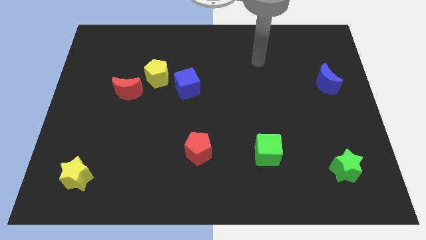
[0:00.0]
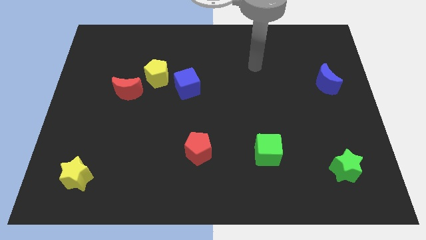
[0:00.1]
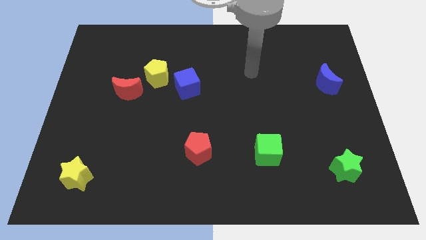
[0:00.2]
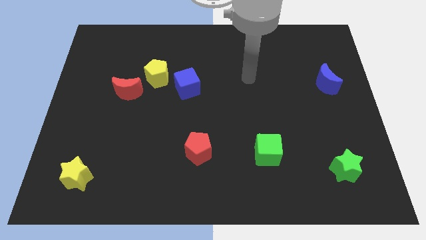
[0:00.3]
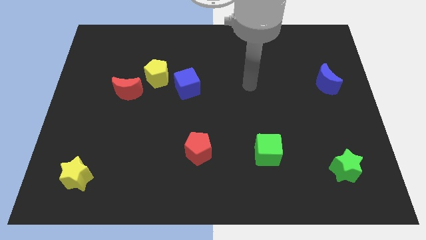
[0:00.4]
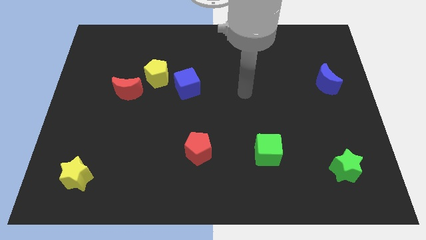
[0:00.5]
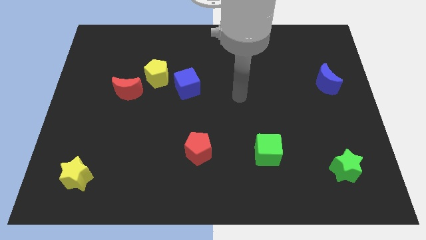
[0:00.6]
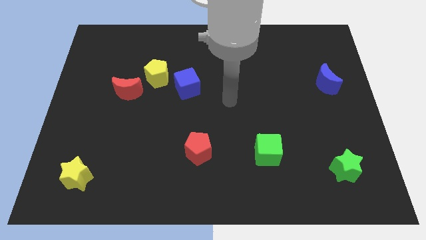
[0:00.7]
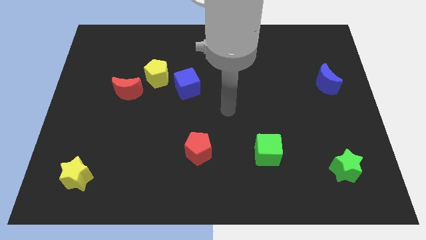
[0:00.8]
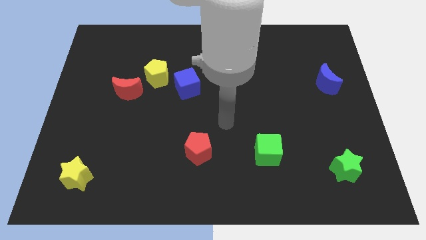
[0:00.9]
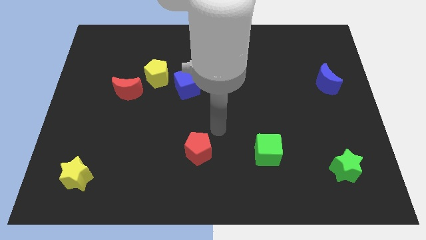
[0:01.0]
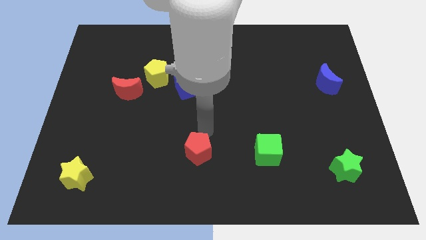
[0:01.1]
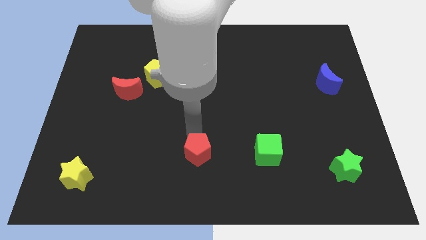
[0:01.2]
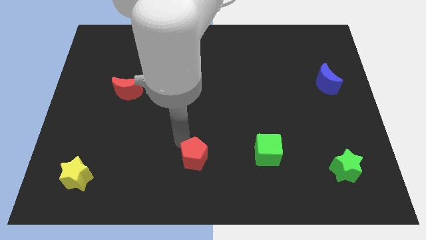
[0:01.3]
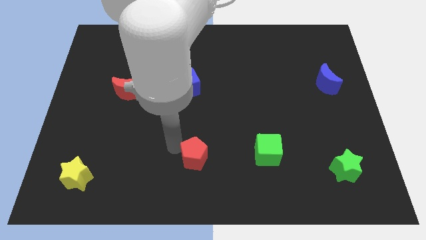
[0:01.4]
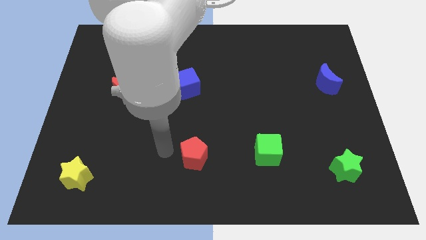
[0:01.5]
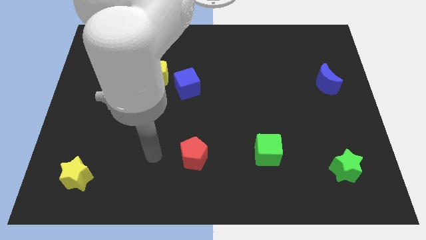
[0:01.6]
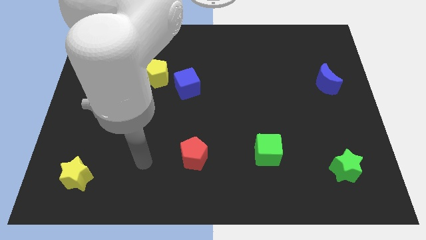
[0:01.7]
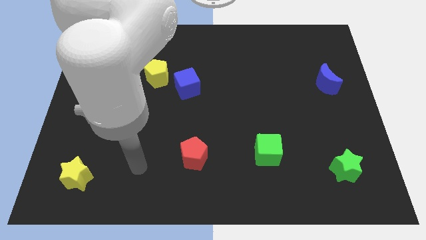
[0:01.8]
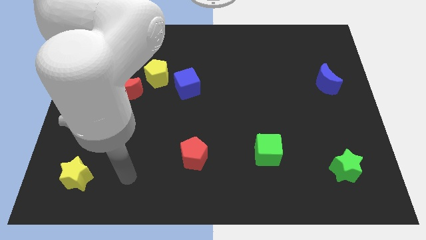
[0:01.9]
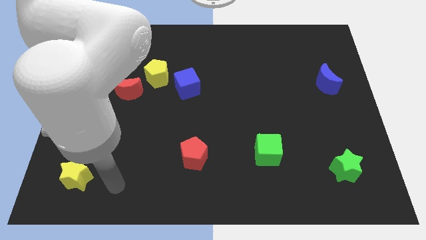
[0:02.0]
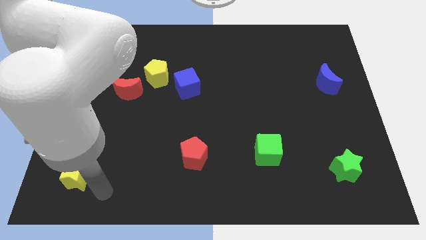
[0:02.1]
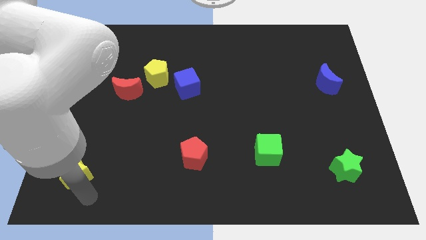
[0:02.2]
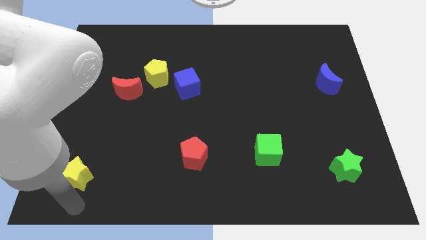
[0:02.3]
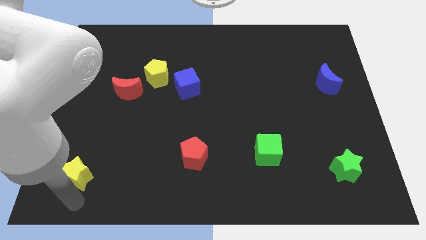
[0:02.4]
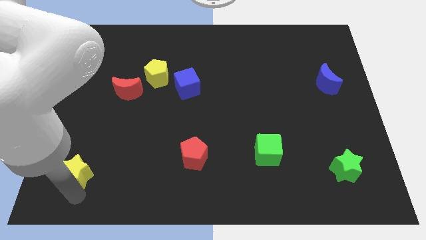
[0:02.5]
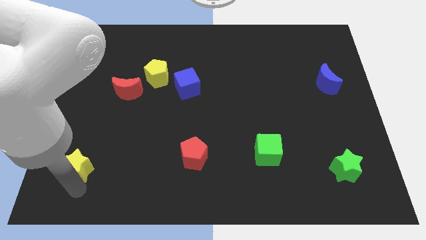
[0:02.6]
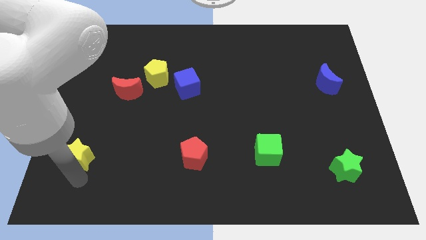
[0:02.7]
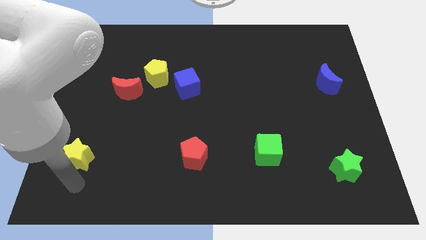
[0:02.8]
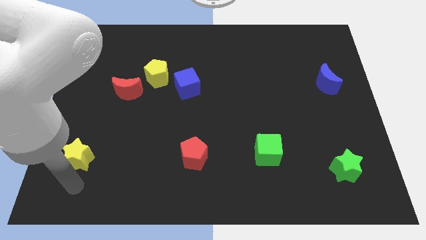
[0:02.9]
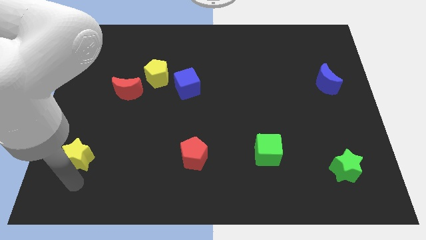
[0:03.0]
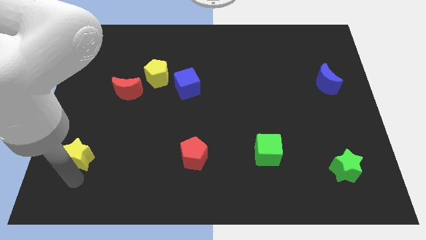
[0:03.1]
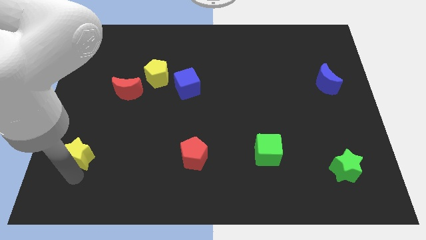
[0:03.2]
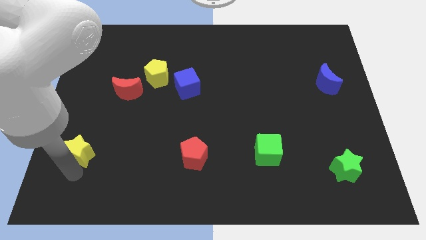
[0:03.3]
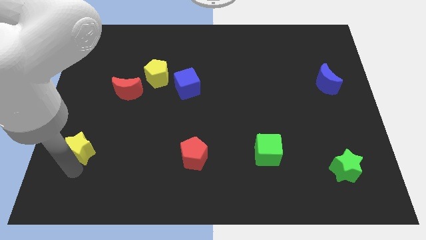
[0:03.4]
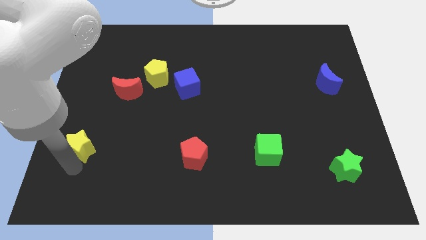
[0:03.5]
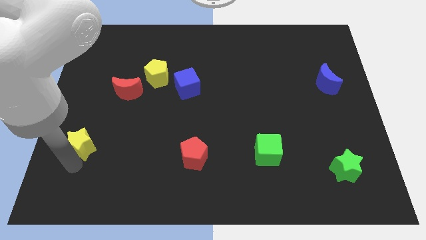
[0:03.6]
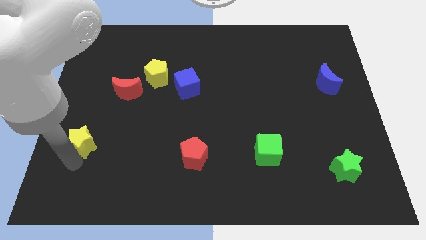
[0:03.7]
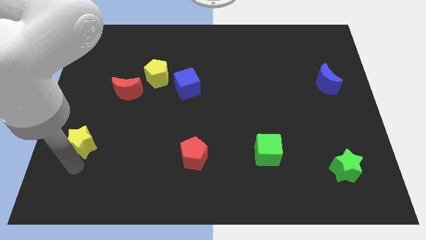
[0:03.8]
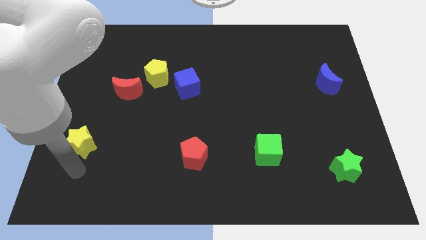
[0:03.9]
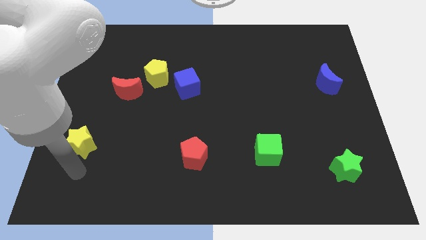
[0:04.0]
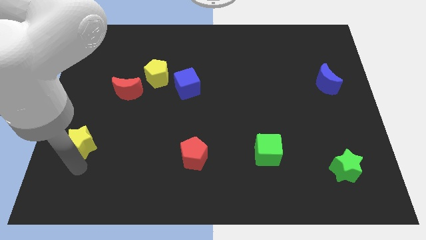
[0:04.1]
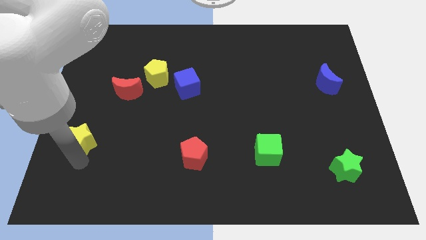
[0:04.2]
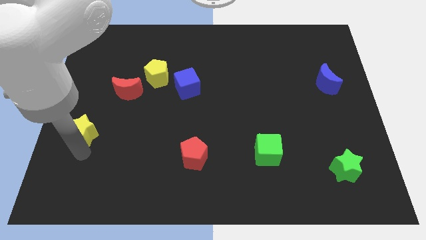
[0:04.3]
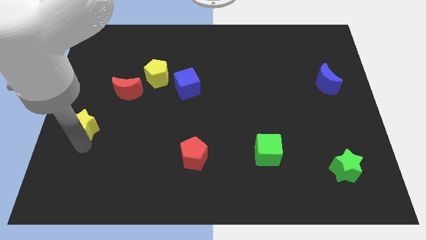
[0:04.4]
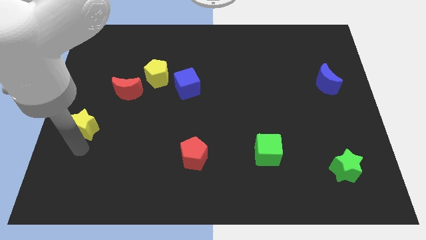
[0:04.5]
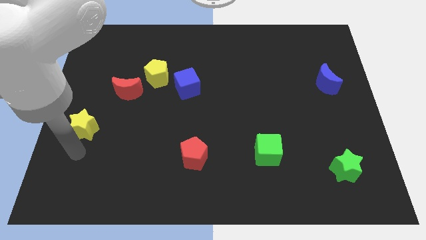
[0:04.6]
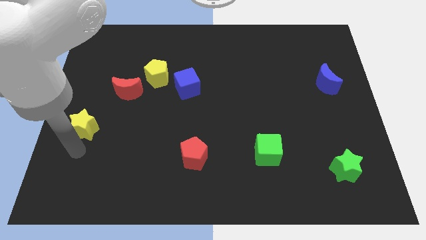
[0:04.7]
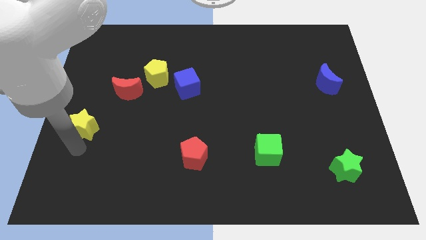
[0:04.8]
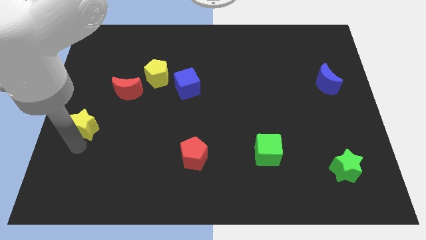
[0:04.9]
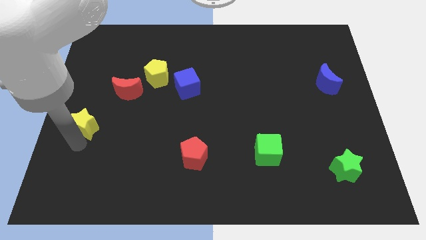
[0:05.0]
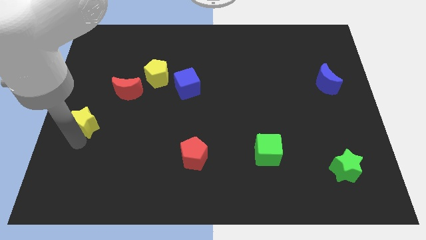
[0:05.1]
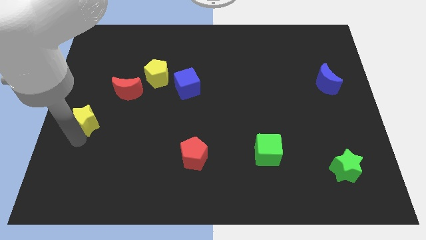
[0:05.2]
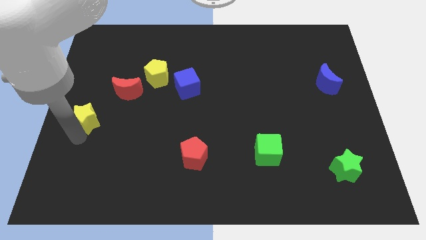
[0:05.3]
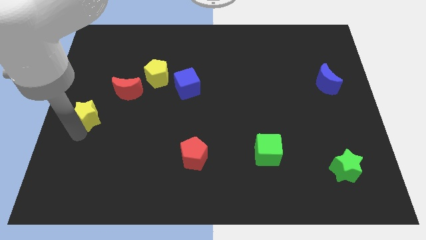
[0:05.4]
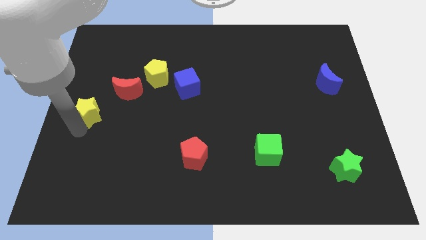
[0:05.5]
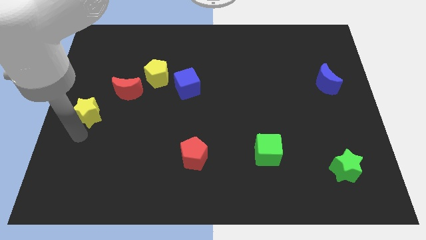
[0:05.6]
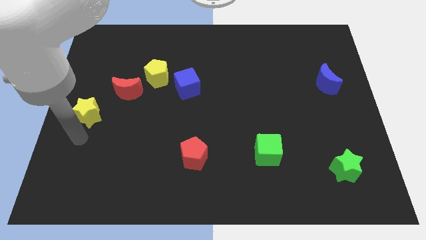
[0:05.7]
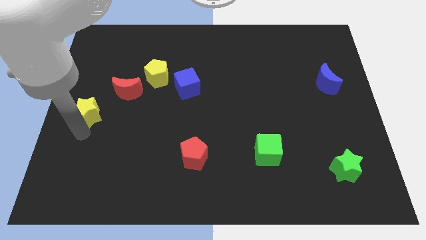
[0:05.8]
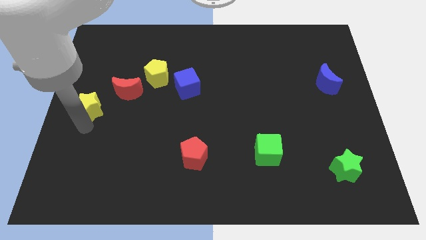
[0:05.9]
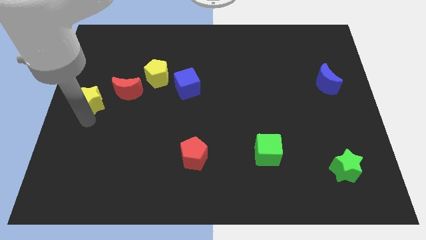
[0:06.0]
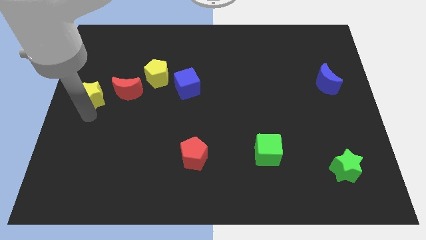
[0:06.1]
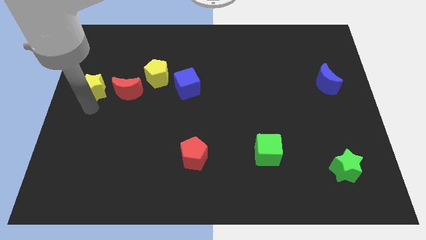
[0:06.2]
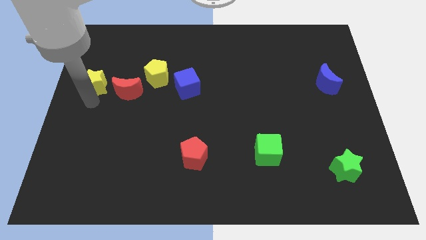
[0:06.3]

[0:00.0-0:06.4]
put the yellow star to the top left side of the red moon
